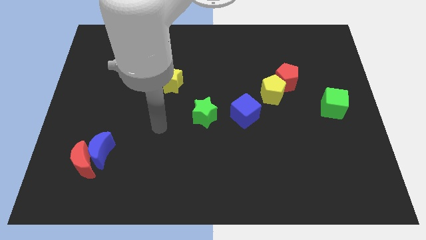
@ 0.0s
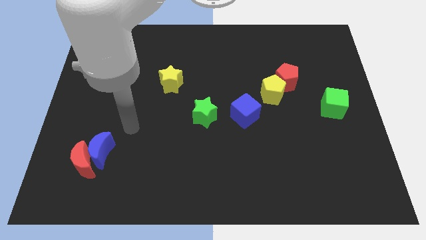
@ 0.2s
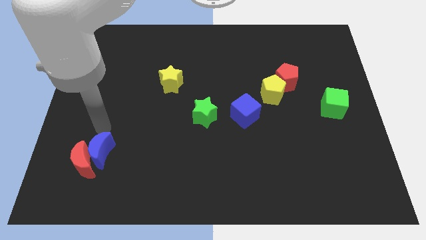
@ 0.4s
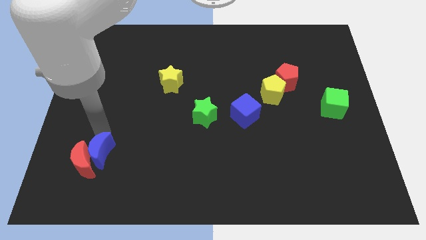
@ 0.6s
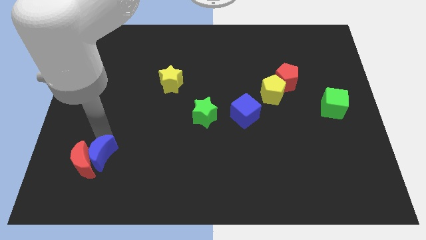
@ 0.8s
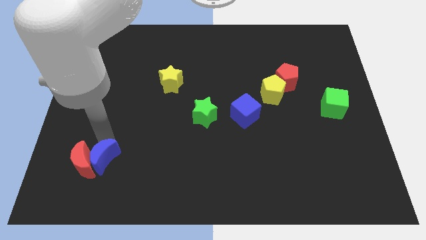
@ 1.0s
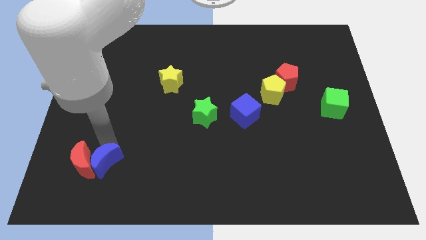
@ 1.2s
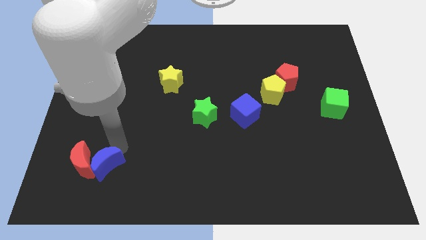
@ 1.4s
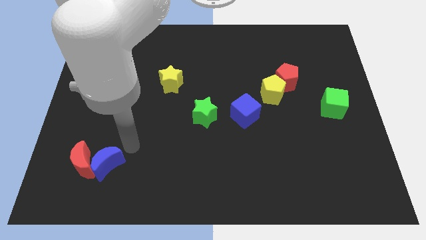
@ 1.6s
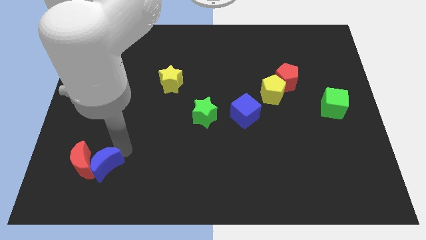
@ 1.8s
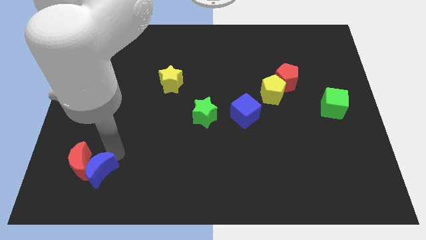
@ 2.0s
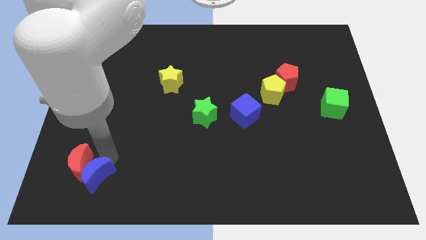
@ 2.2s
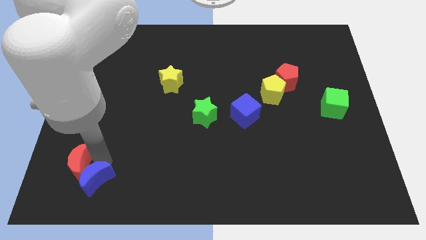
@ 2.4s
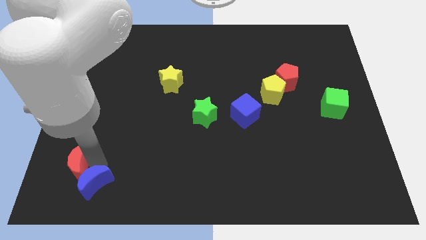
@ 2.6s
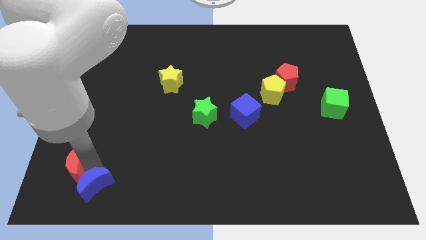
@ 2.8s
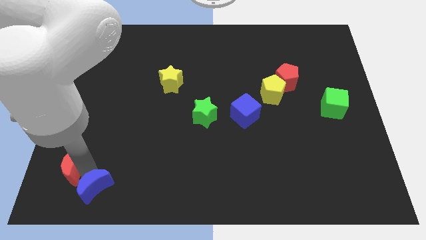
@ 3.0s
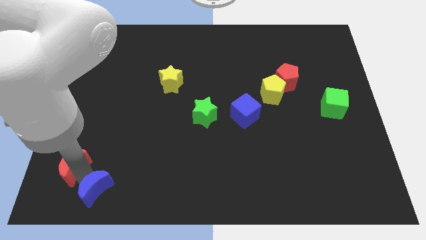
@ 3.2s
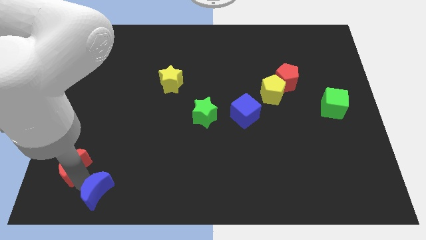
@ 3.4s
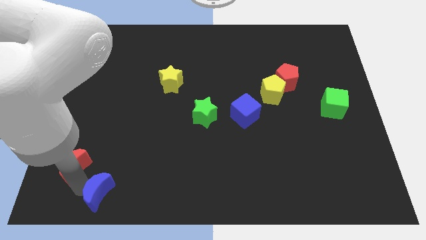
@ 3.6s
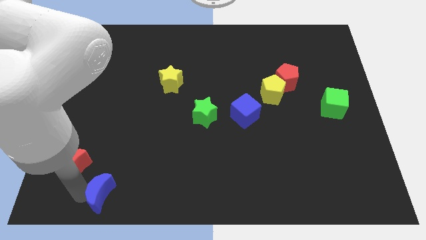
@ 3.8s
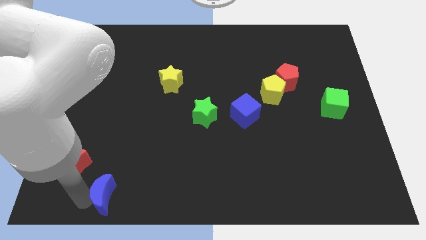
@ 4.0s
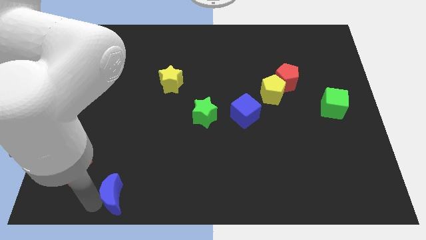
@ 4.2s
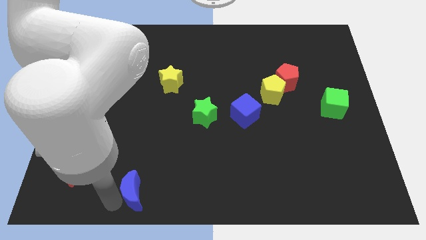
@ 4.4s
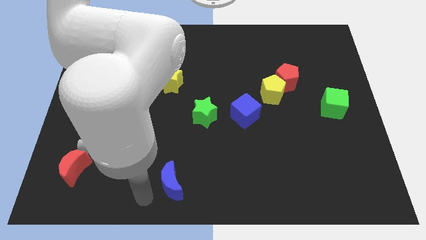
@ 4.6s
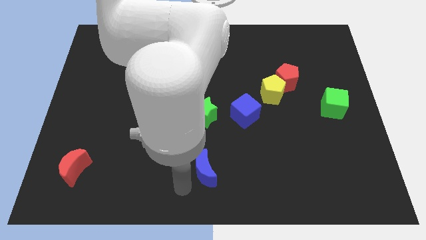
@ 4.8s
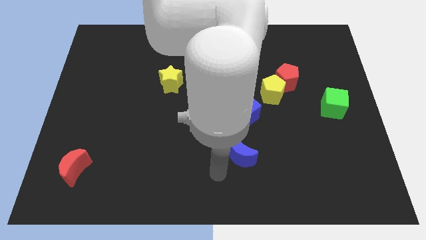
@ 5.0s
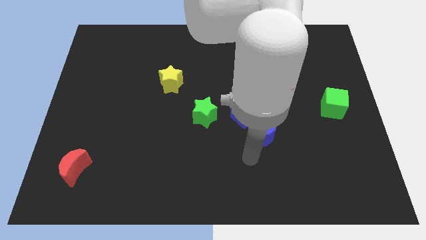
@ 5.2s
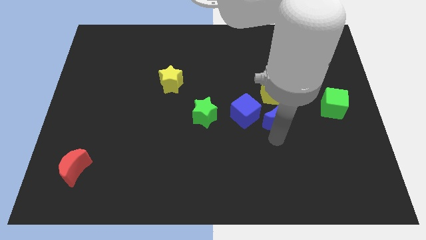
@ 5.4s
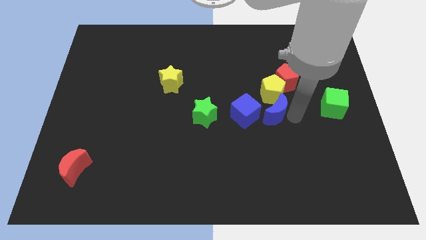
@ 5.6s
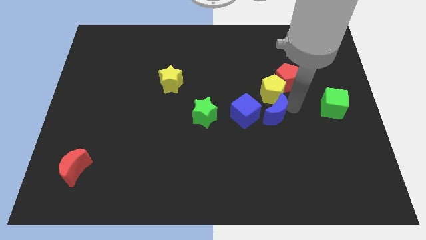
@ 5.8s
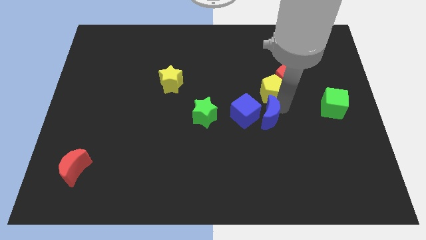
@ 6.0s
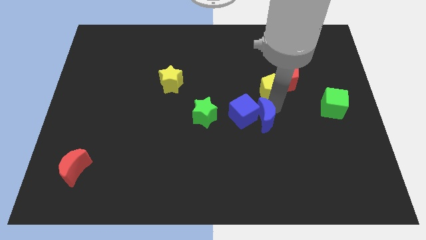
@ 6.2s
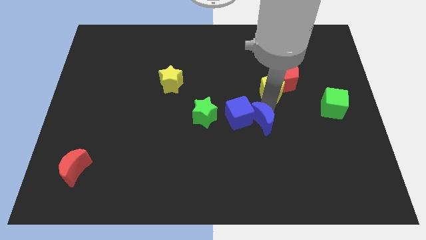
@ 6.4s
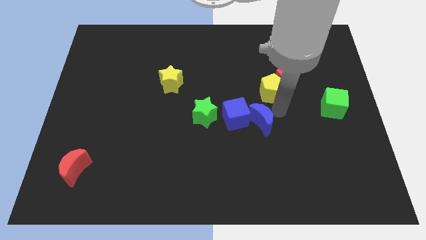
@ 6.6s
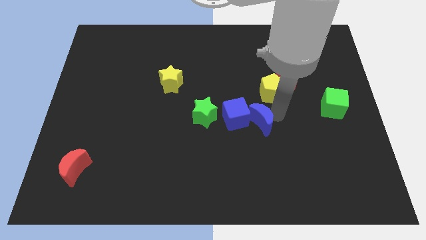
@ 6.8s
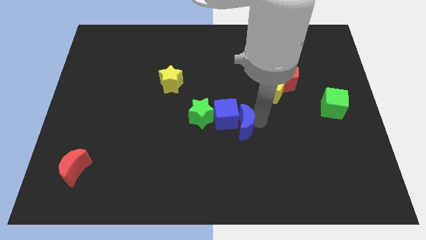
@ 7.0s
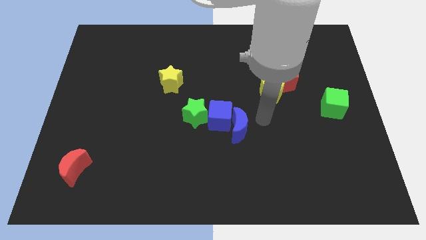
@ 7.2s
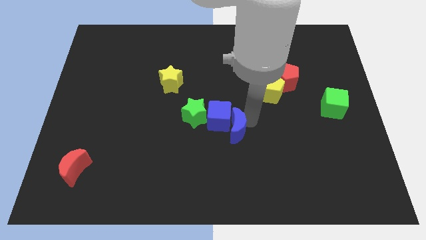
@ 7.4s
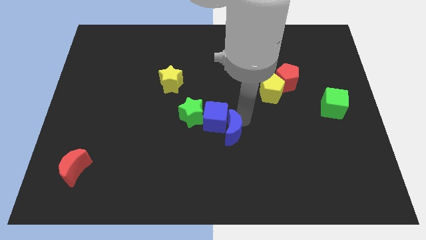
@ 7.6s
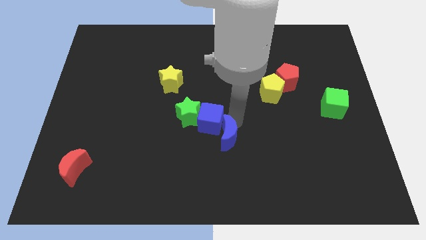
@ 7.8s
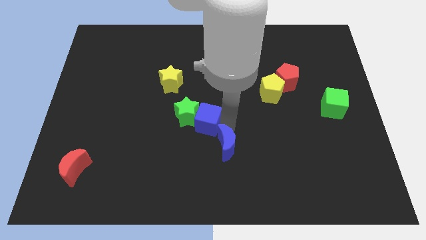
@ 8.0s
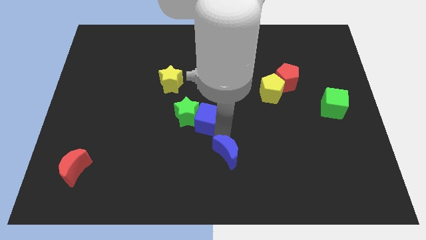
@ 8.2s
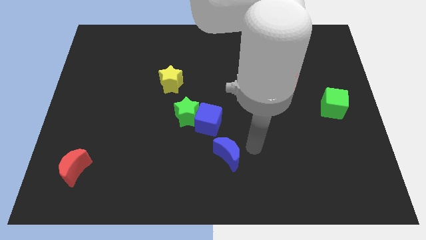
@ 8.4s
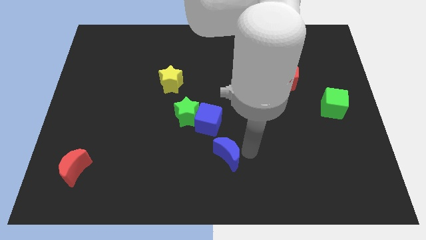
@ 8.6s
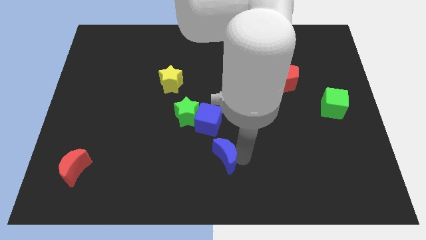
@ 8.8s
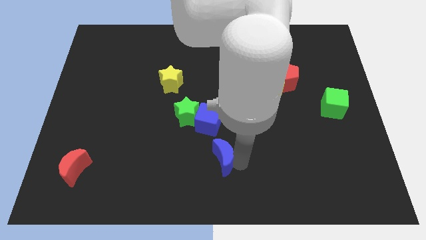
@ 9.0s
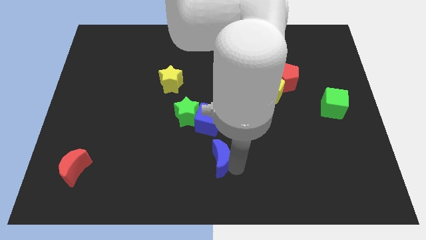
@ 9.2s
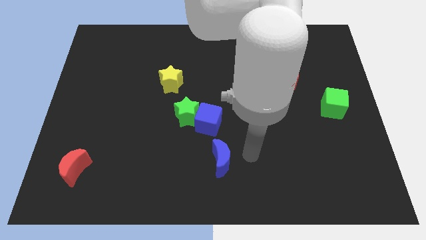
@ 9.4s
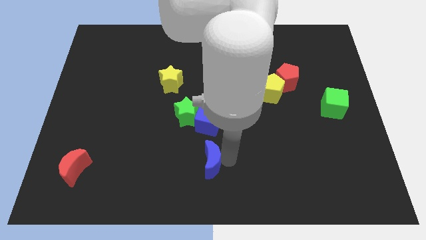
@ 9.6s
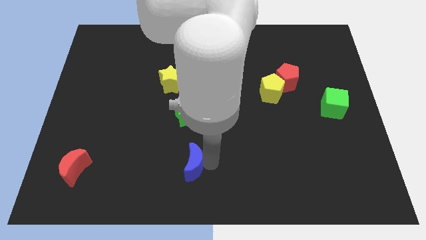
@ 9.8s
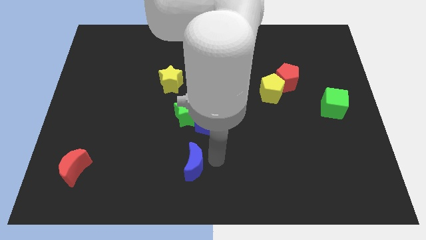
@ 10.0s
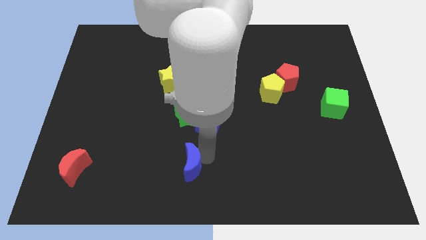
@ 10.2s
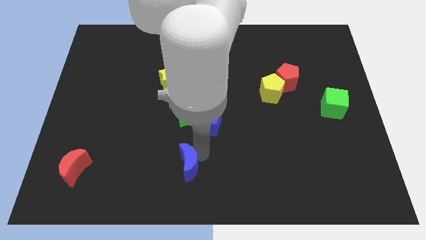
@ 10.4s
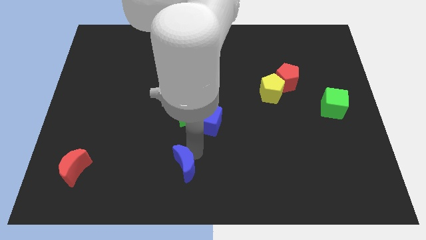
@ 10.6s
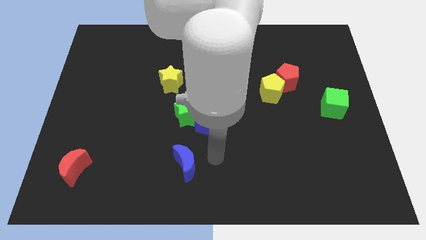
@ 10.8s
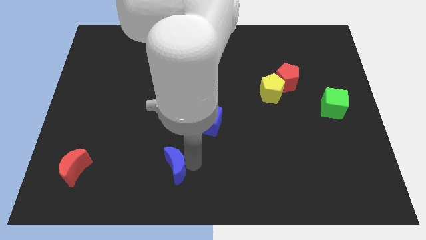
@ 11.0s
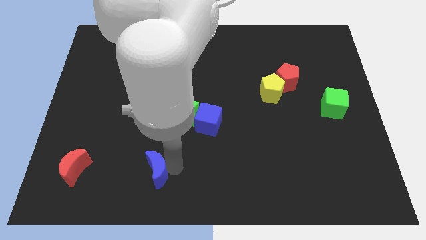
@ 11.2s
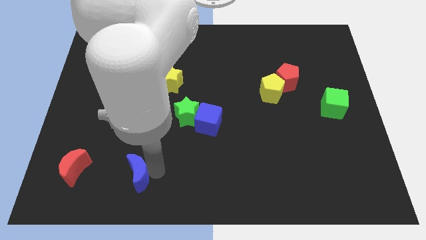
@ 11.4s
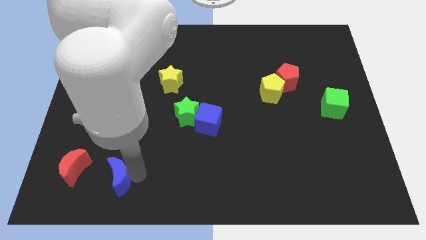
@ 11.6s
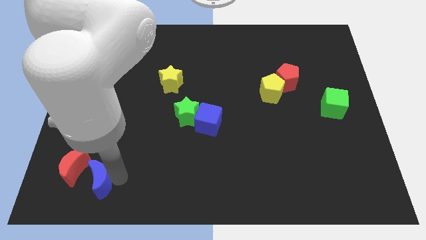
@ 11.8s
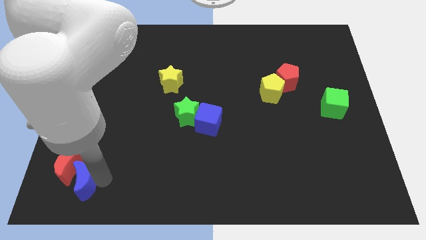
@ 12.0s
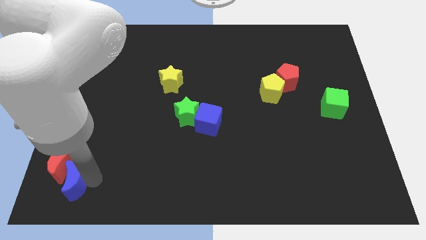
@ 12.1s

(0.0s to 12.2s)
slide the blue moon to the lower left corner
